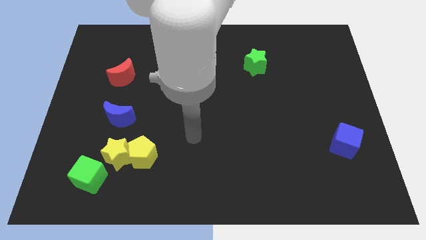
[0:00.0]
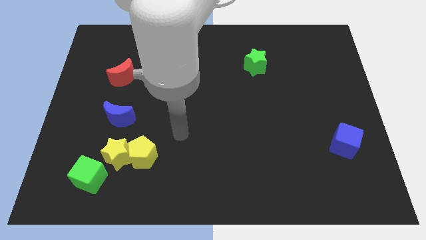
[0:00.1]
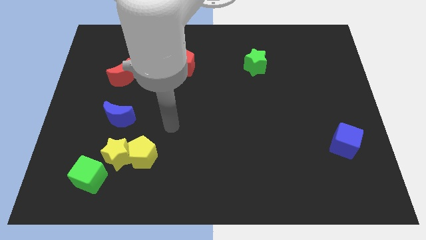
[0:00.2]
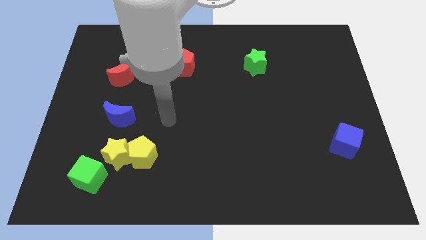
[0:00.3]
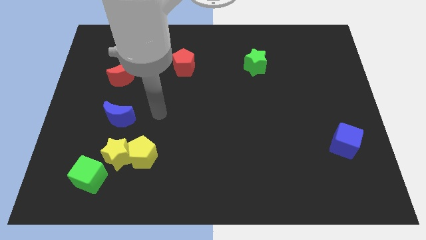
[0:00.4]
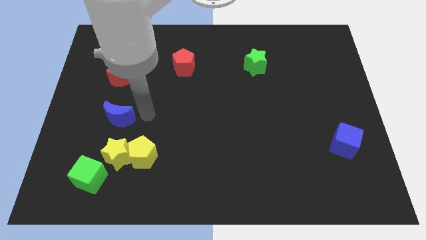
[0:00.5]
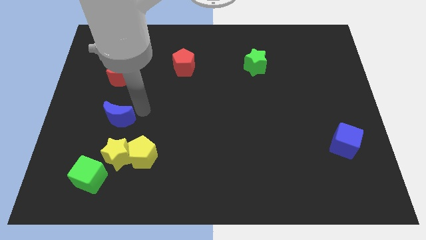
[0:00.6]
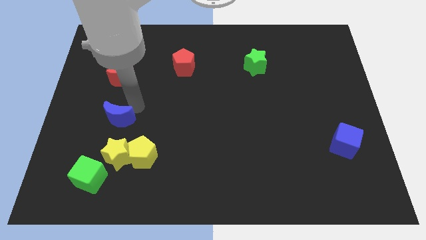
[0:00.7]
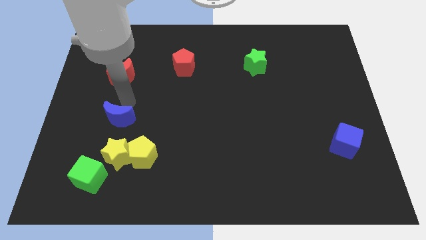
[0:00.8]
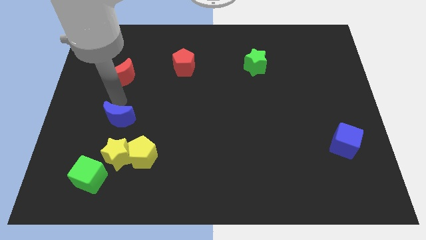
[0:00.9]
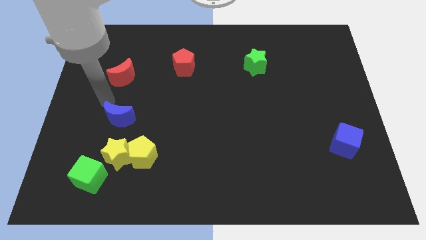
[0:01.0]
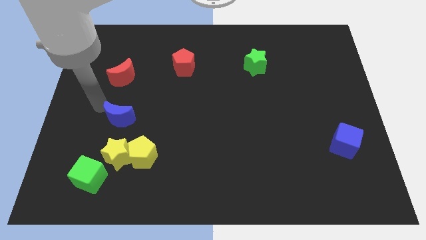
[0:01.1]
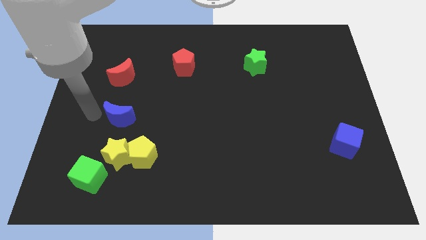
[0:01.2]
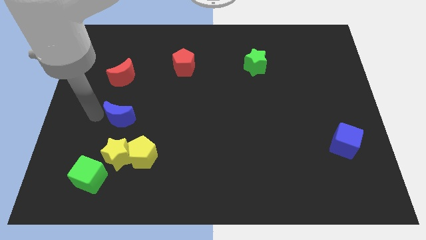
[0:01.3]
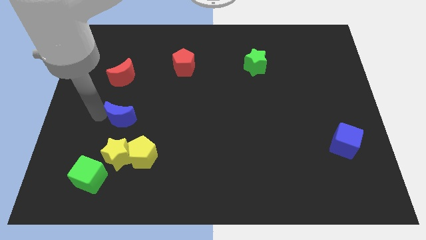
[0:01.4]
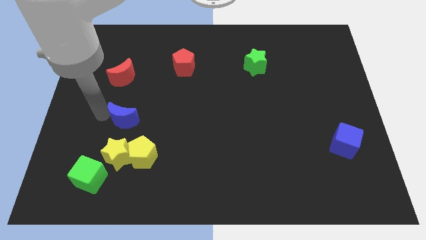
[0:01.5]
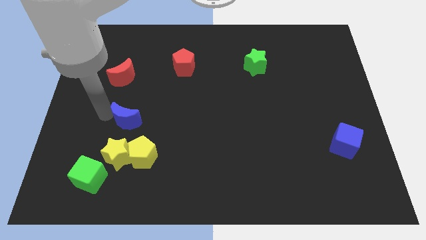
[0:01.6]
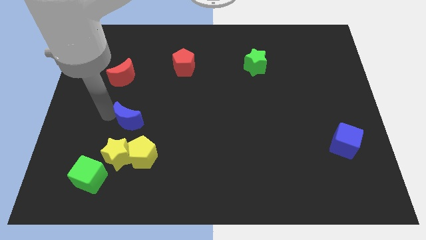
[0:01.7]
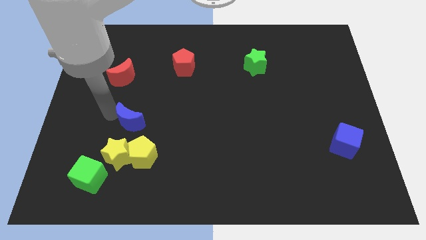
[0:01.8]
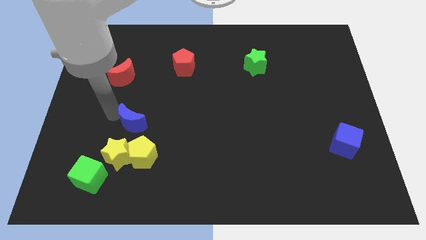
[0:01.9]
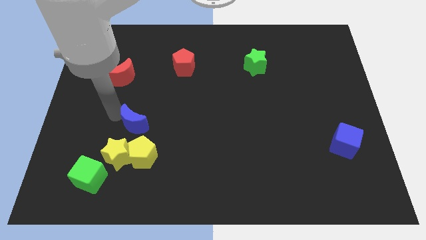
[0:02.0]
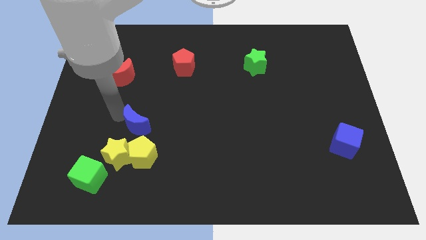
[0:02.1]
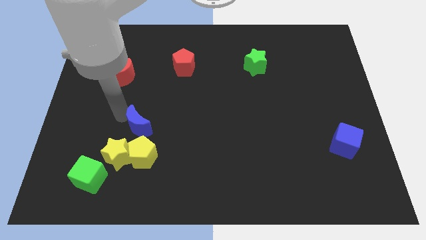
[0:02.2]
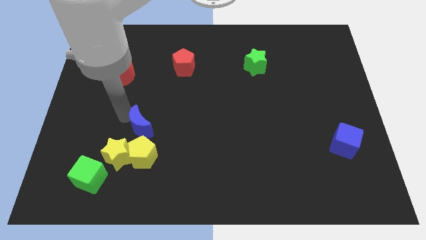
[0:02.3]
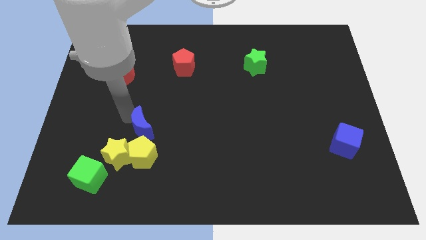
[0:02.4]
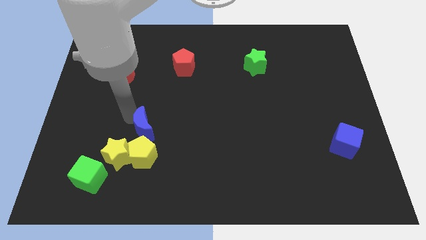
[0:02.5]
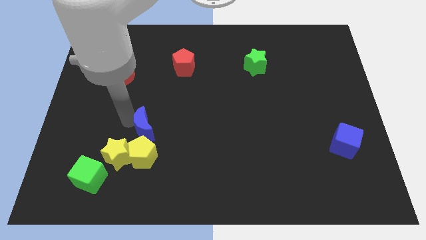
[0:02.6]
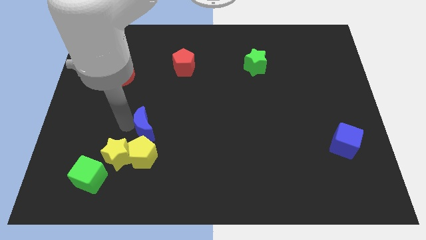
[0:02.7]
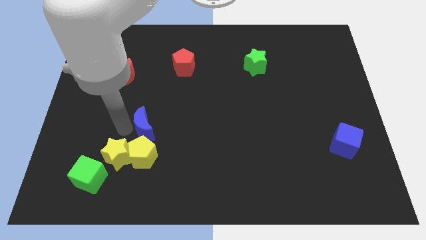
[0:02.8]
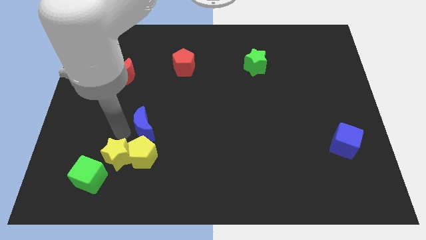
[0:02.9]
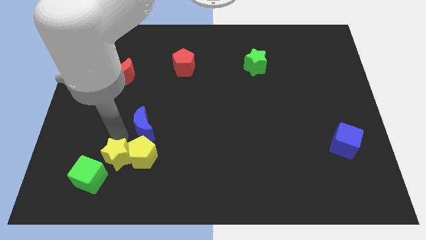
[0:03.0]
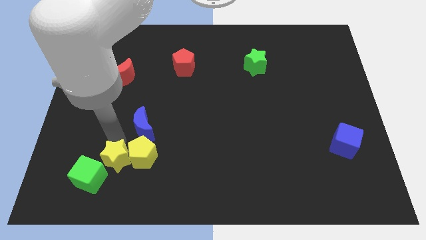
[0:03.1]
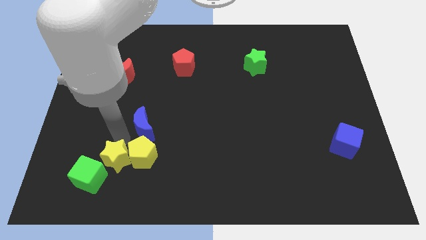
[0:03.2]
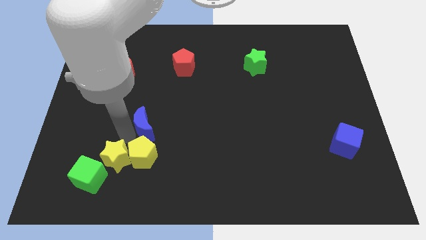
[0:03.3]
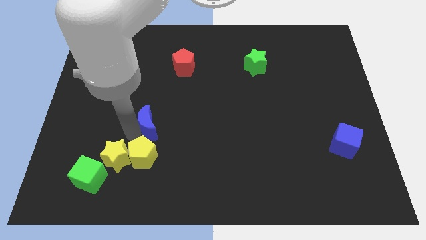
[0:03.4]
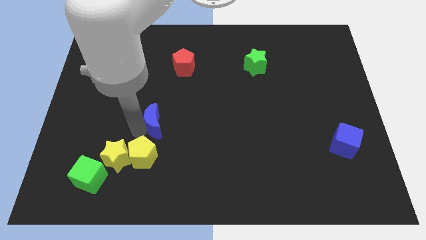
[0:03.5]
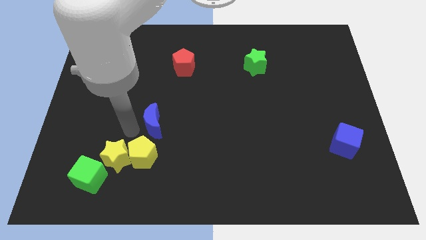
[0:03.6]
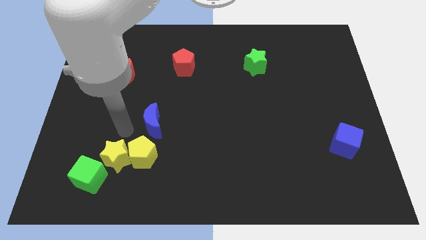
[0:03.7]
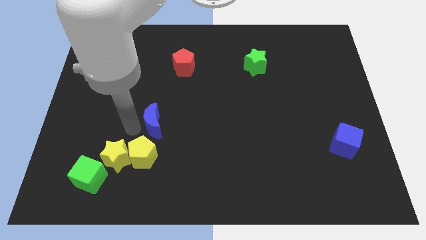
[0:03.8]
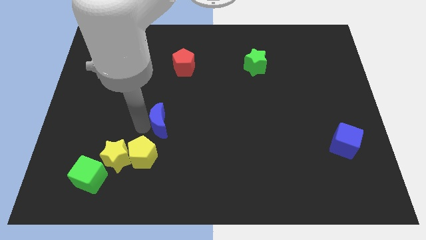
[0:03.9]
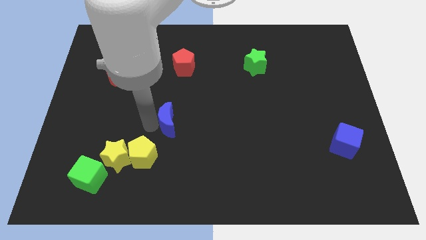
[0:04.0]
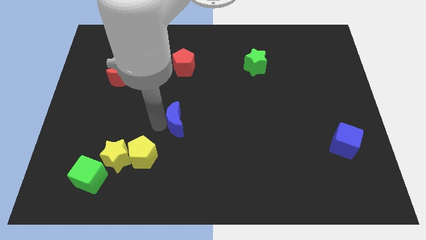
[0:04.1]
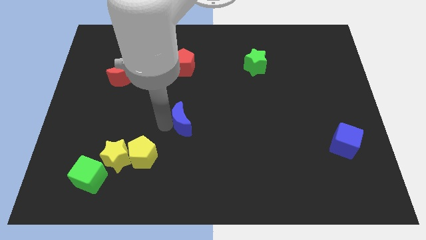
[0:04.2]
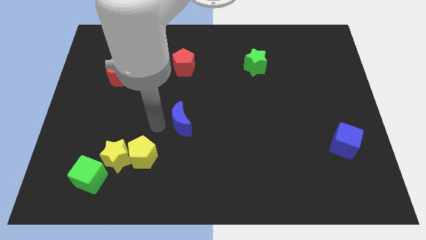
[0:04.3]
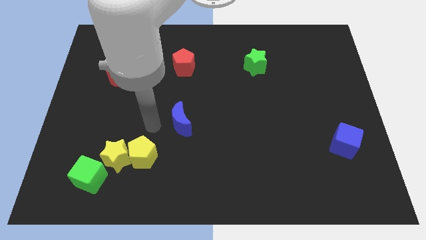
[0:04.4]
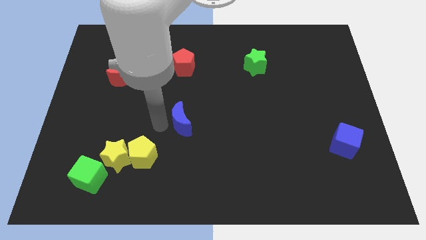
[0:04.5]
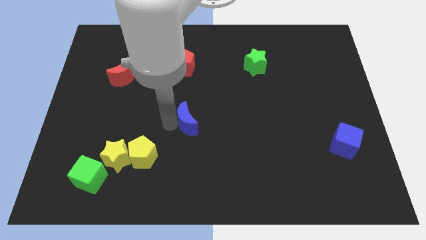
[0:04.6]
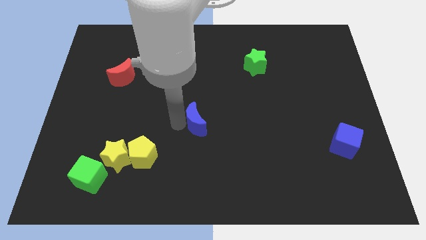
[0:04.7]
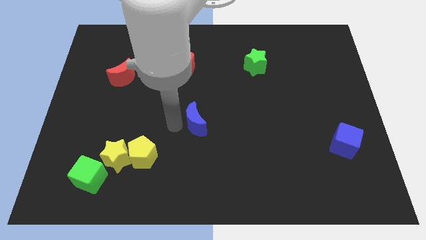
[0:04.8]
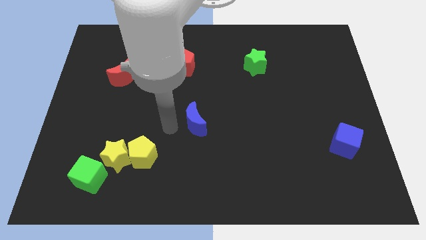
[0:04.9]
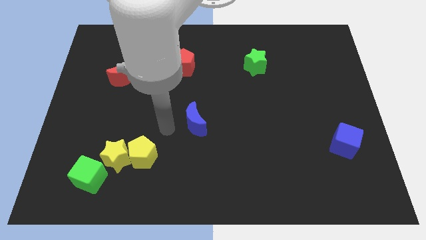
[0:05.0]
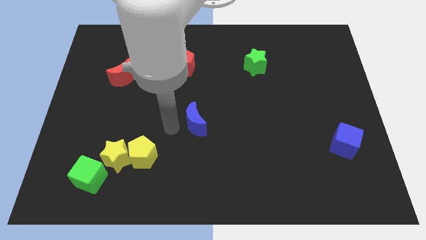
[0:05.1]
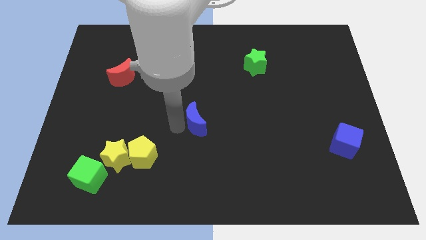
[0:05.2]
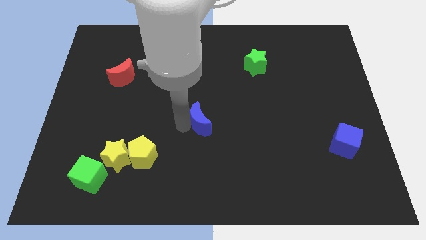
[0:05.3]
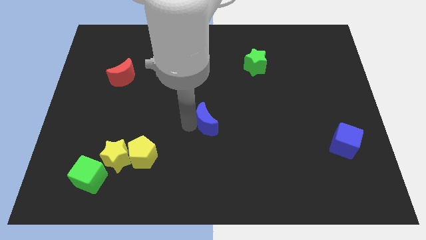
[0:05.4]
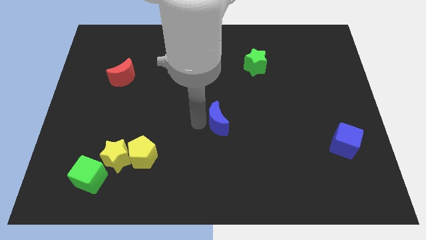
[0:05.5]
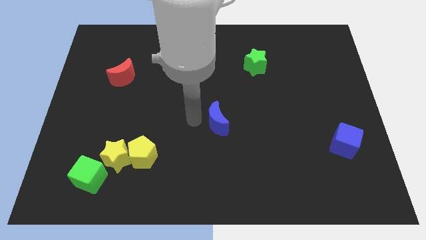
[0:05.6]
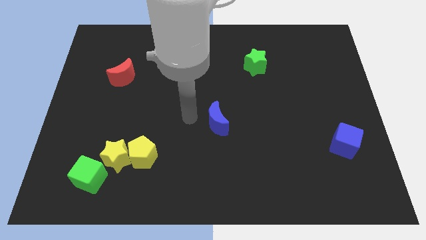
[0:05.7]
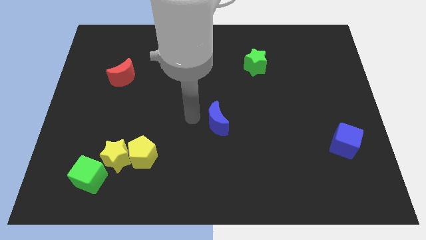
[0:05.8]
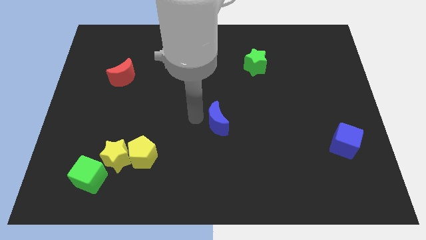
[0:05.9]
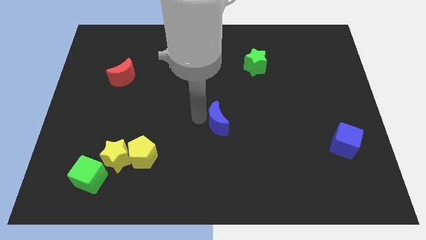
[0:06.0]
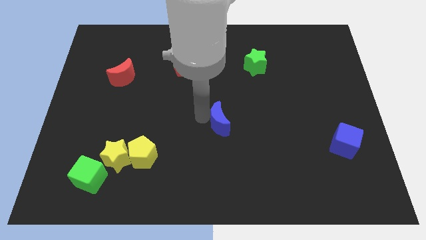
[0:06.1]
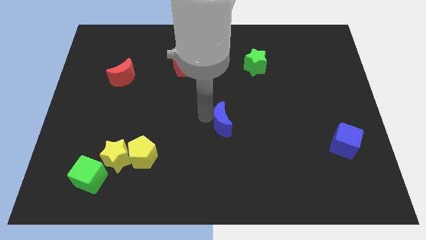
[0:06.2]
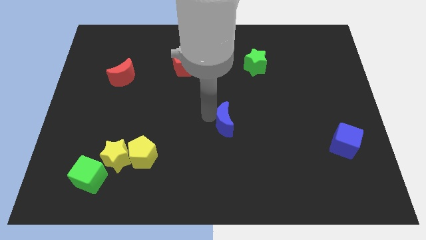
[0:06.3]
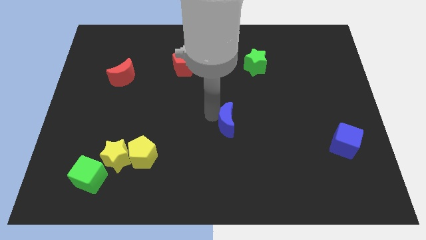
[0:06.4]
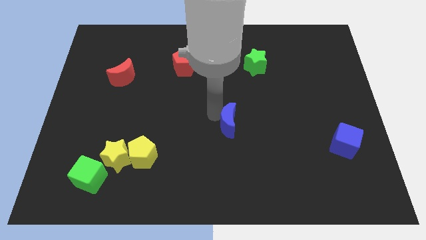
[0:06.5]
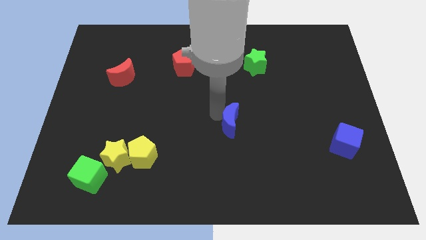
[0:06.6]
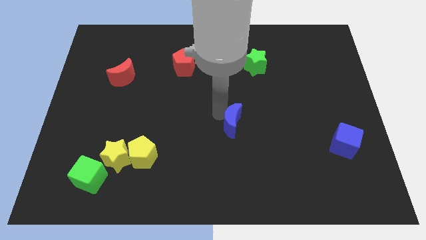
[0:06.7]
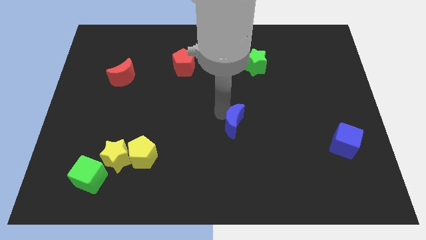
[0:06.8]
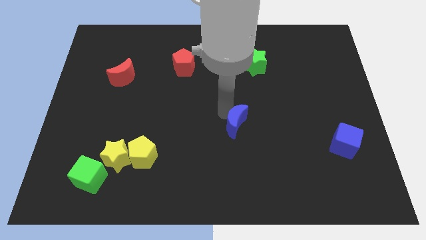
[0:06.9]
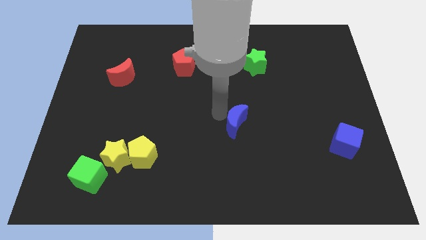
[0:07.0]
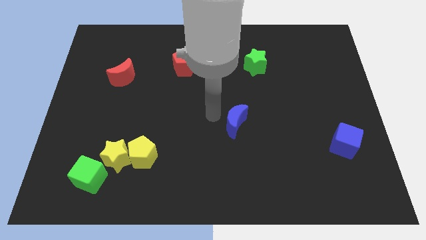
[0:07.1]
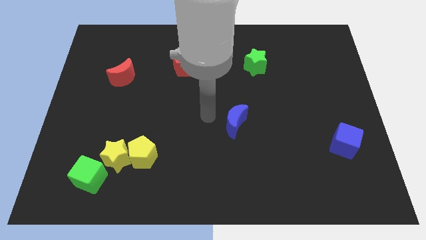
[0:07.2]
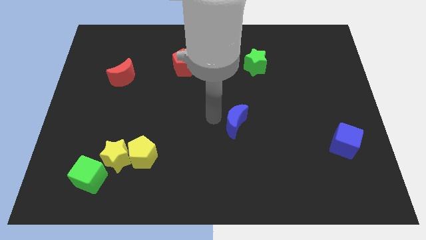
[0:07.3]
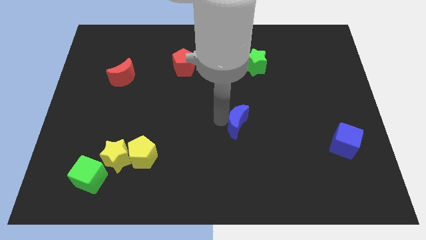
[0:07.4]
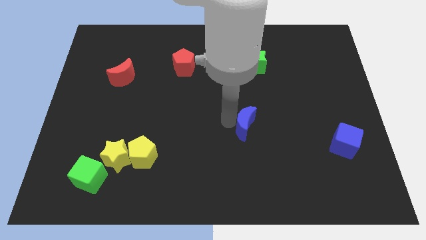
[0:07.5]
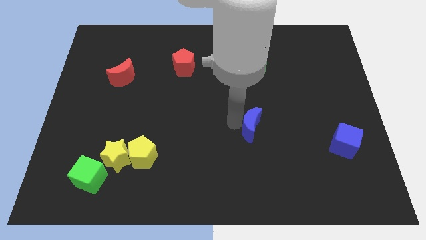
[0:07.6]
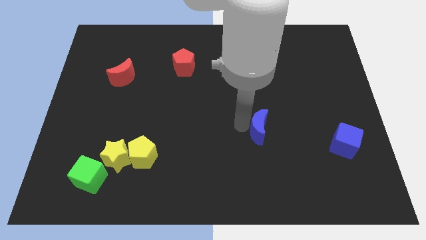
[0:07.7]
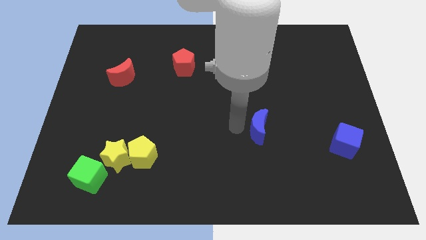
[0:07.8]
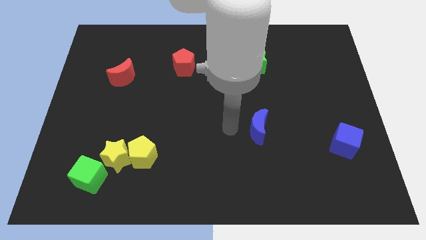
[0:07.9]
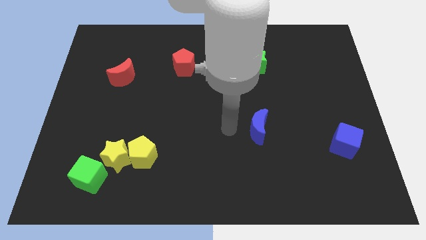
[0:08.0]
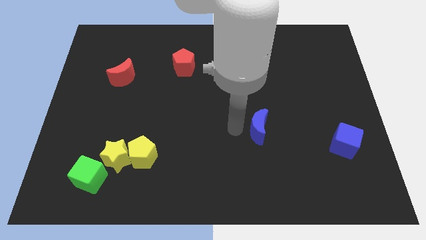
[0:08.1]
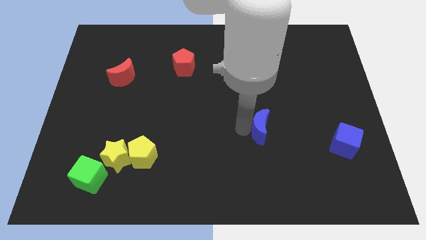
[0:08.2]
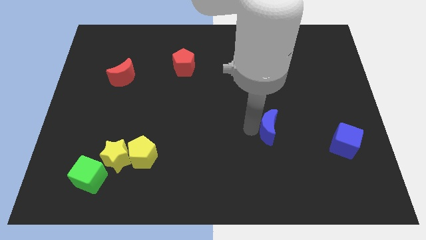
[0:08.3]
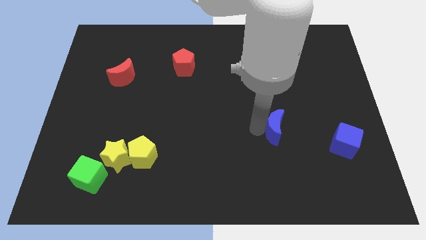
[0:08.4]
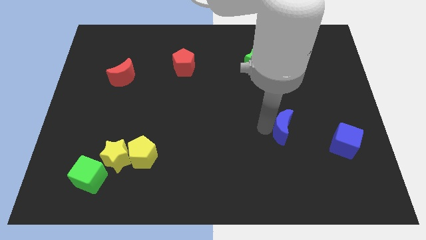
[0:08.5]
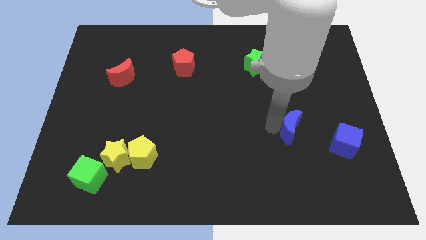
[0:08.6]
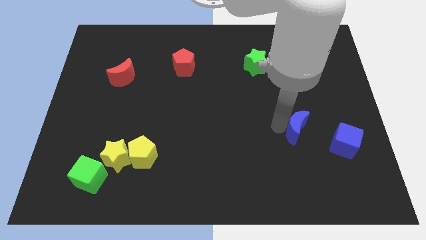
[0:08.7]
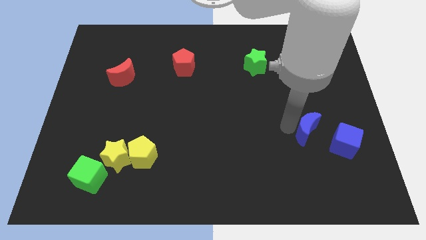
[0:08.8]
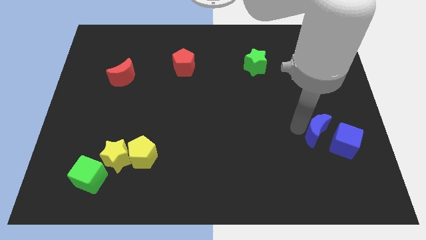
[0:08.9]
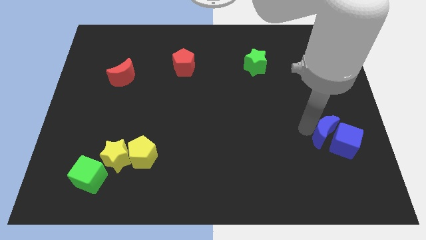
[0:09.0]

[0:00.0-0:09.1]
put the blue moon to the blue cube
